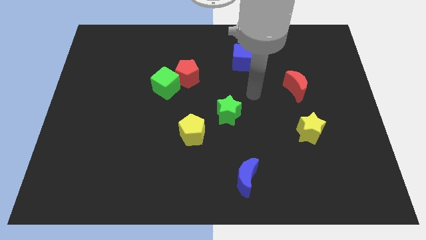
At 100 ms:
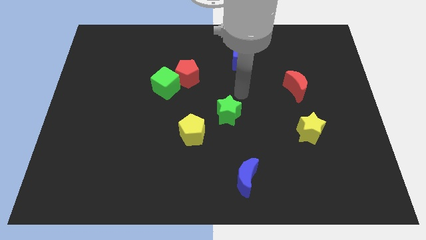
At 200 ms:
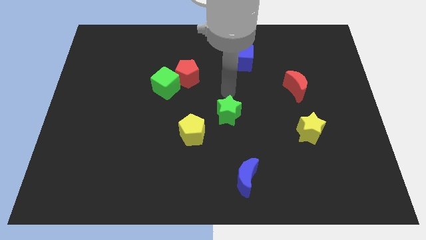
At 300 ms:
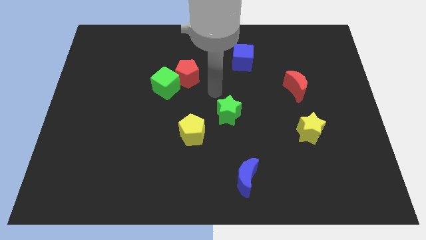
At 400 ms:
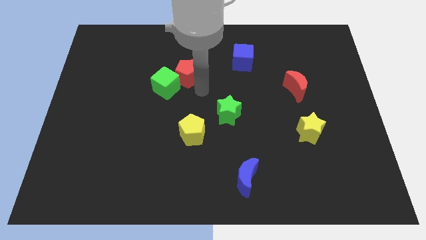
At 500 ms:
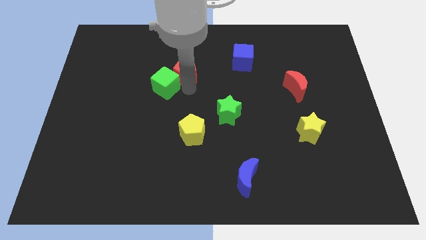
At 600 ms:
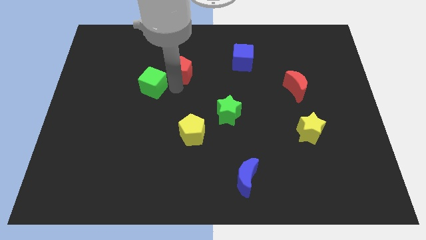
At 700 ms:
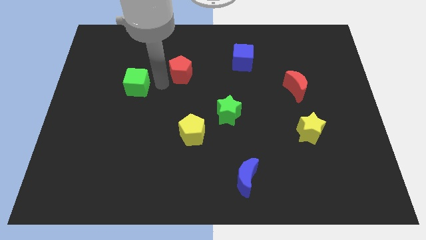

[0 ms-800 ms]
separate the red pentagon from the green cube

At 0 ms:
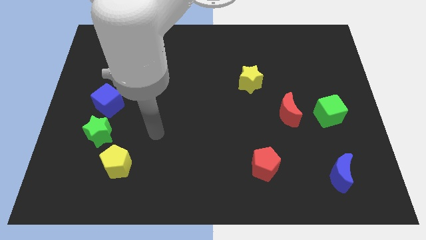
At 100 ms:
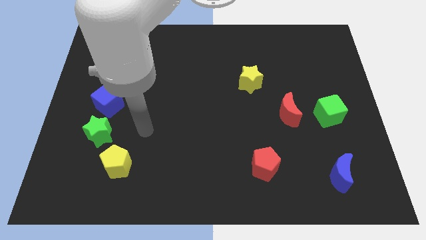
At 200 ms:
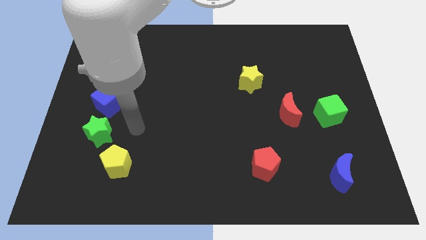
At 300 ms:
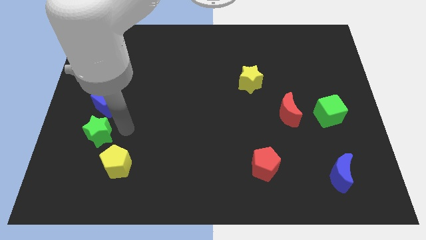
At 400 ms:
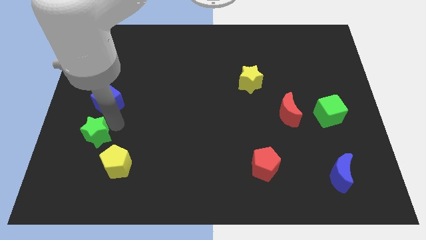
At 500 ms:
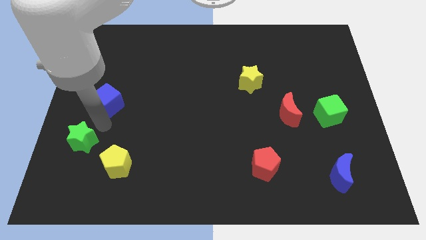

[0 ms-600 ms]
move the blue cube away from the green star

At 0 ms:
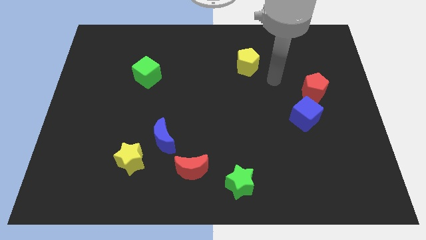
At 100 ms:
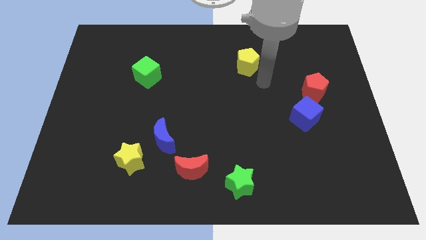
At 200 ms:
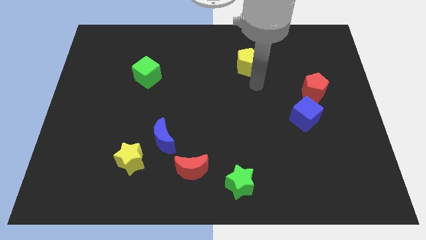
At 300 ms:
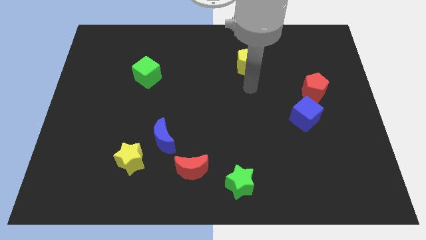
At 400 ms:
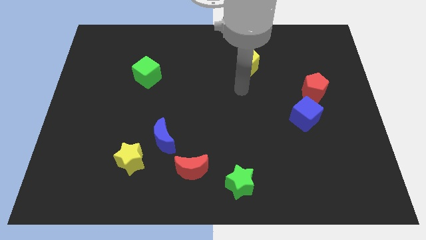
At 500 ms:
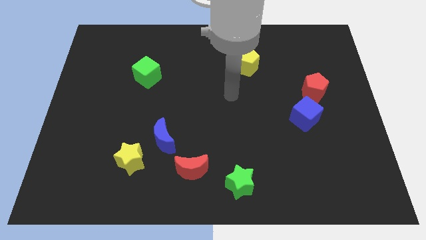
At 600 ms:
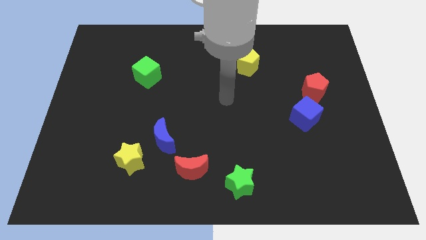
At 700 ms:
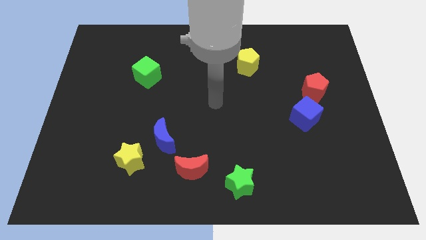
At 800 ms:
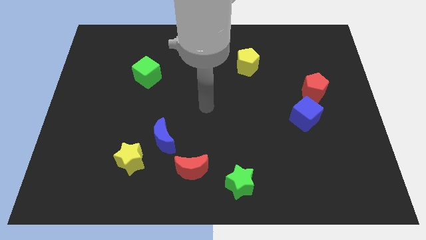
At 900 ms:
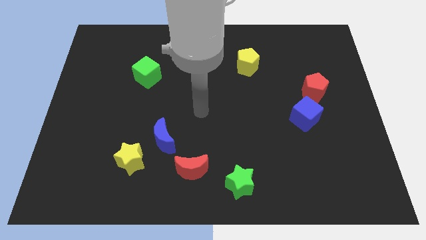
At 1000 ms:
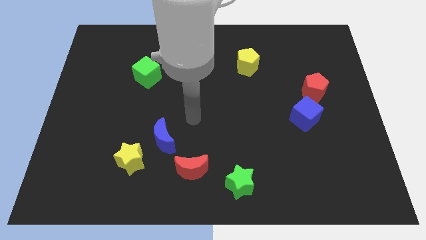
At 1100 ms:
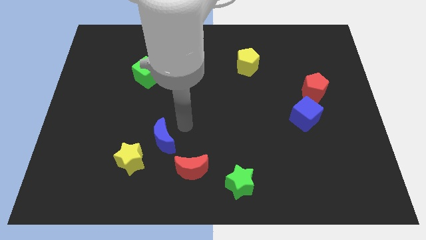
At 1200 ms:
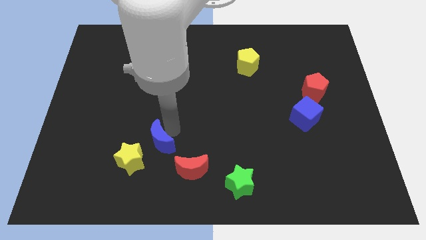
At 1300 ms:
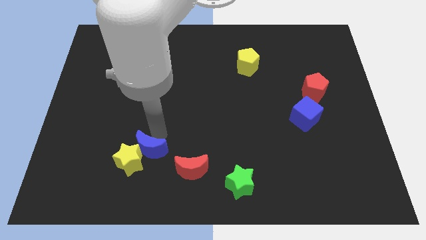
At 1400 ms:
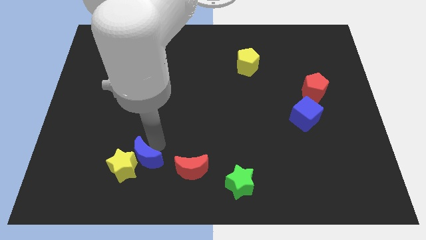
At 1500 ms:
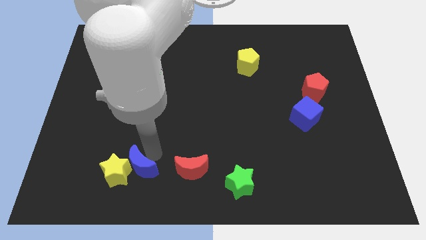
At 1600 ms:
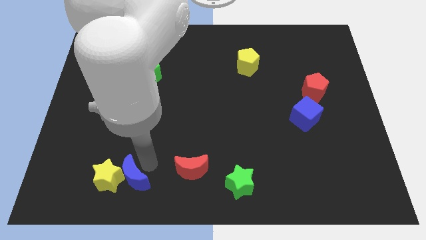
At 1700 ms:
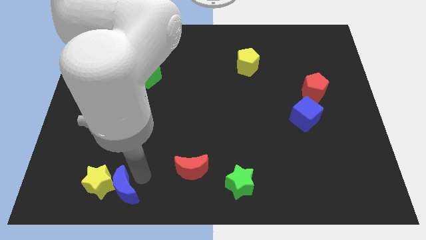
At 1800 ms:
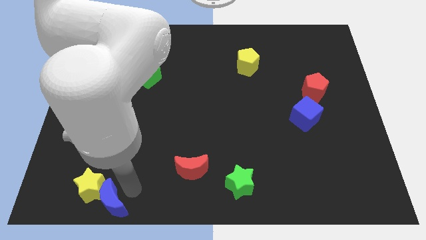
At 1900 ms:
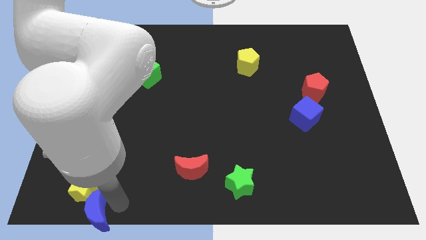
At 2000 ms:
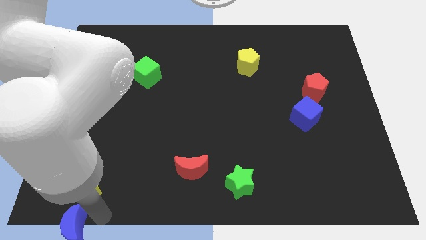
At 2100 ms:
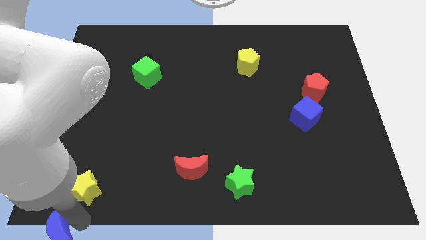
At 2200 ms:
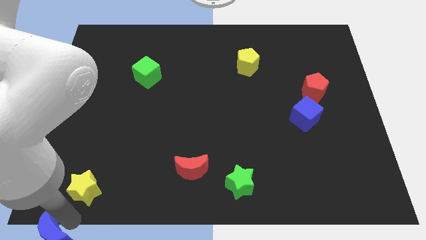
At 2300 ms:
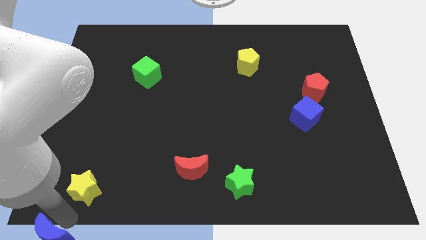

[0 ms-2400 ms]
pull the yellow star apart from the blue moon

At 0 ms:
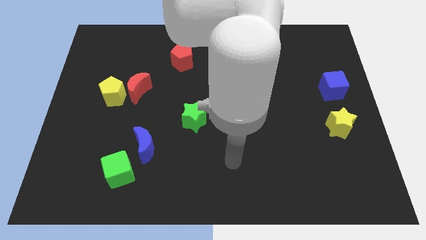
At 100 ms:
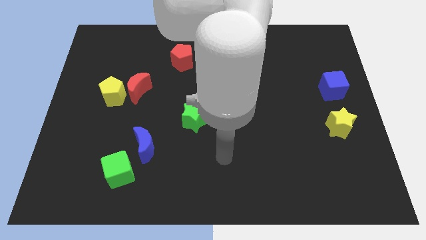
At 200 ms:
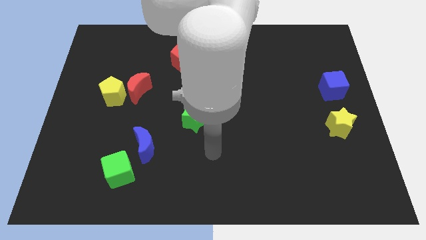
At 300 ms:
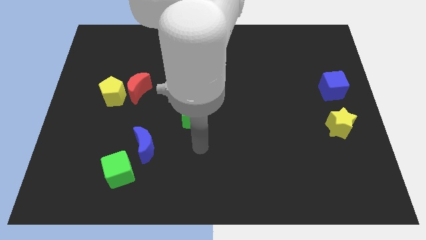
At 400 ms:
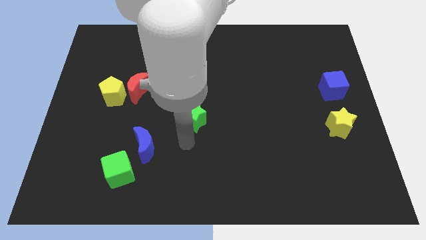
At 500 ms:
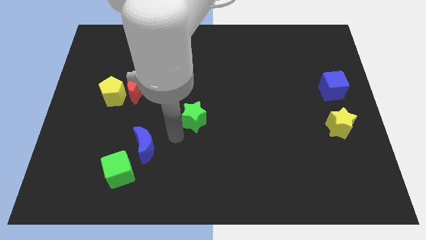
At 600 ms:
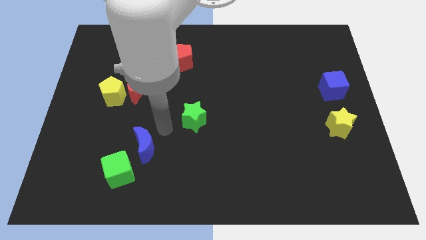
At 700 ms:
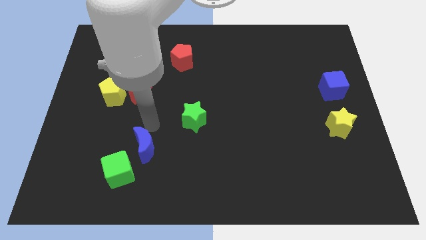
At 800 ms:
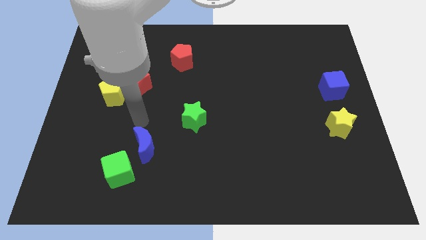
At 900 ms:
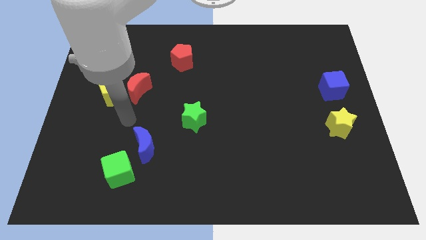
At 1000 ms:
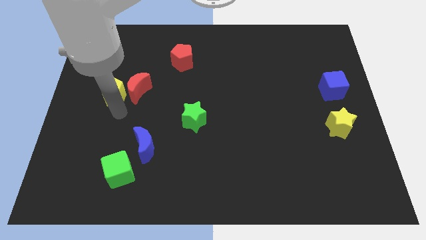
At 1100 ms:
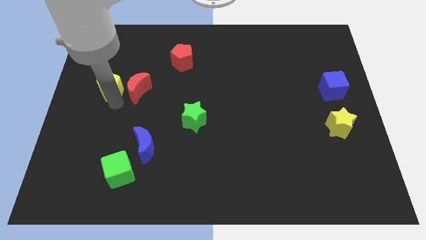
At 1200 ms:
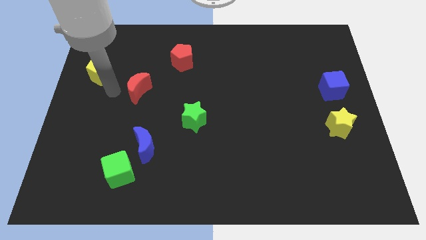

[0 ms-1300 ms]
pull the red moon apart from the yellow pentagon

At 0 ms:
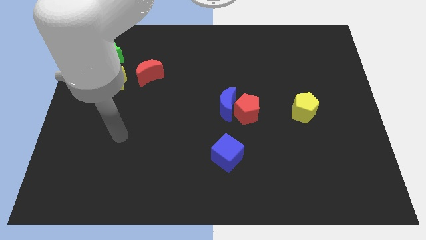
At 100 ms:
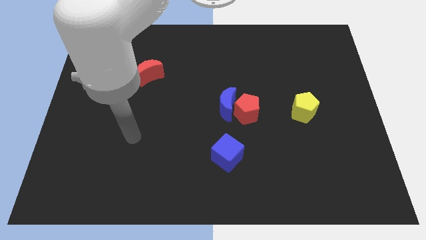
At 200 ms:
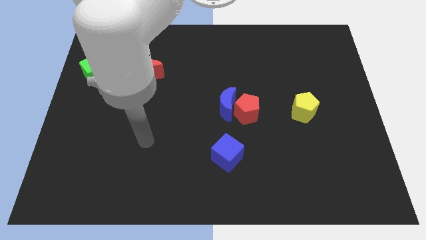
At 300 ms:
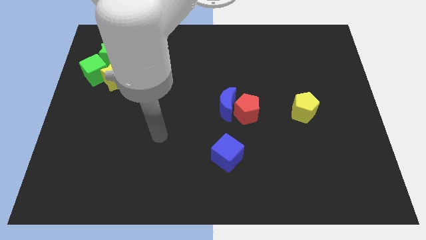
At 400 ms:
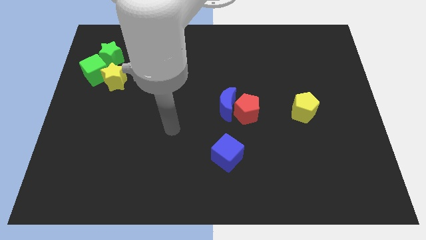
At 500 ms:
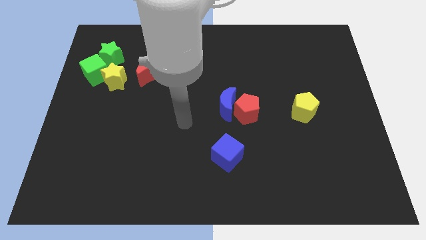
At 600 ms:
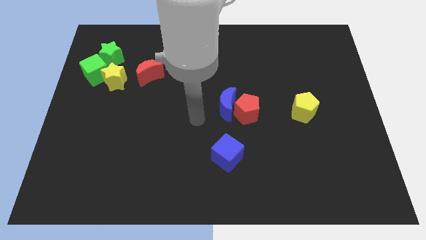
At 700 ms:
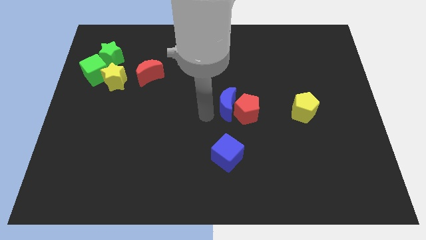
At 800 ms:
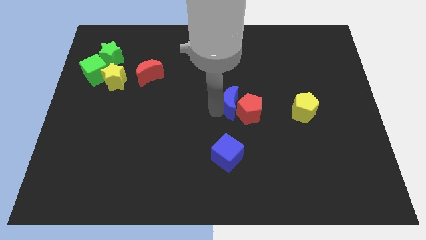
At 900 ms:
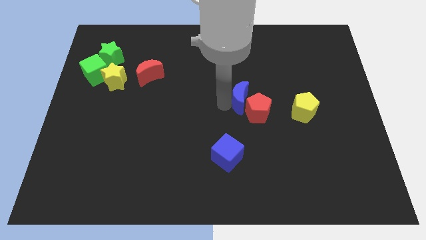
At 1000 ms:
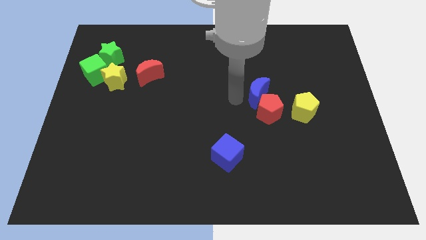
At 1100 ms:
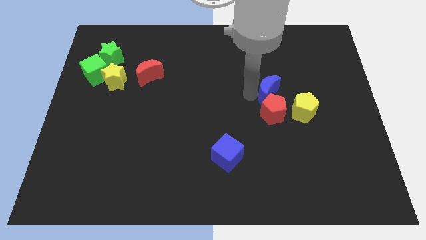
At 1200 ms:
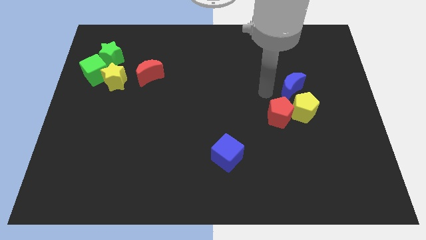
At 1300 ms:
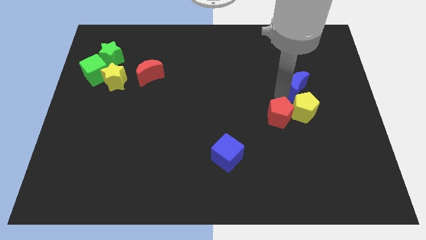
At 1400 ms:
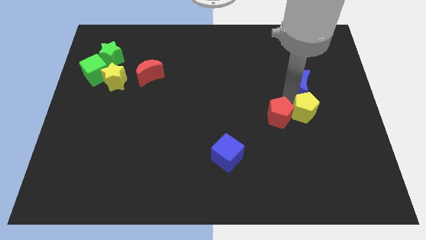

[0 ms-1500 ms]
pull the red pentagon apart from the blue moon

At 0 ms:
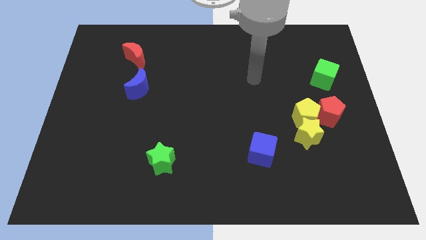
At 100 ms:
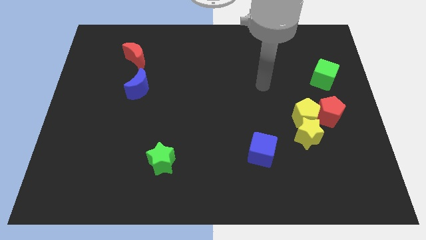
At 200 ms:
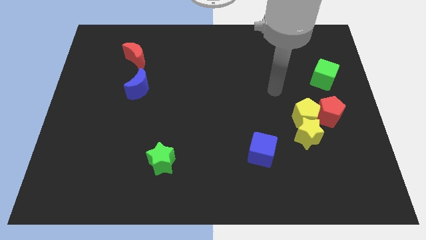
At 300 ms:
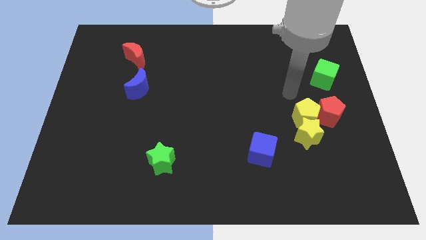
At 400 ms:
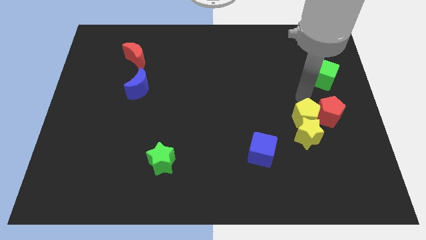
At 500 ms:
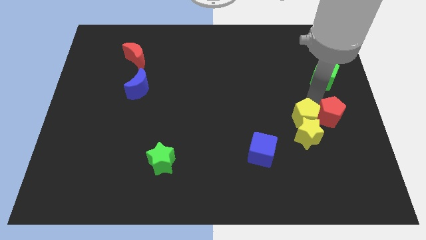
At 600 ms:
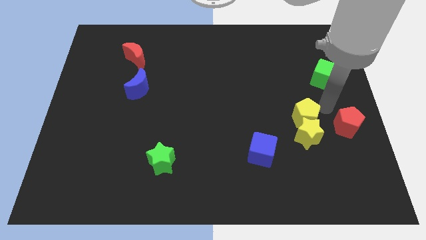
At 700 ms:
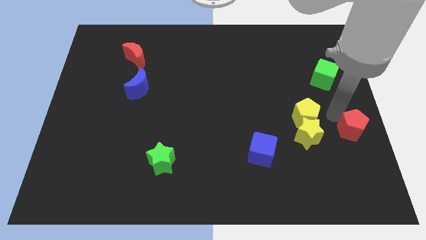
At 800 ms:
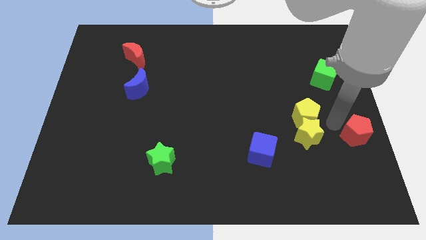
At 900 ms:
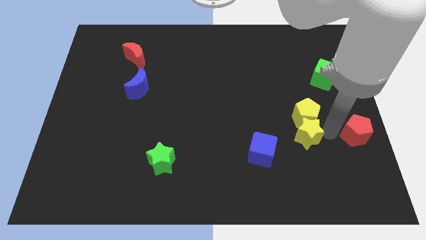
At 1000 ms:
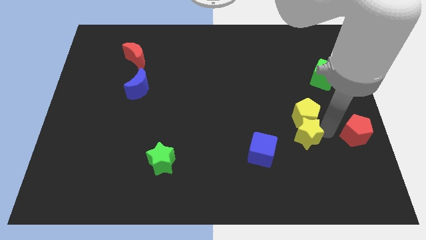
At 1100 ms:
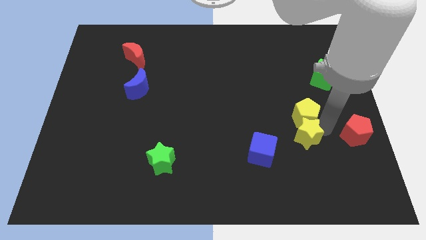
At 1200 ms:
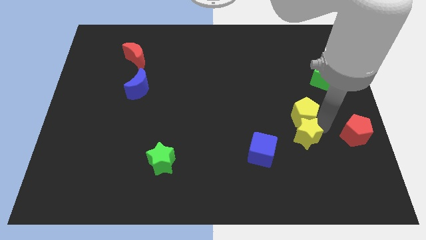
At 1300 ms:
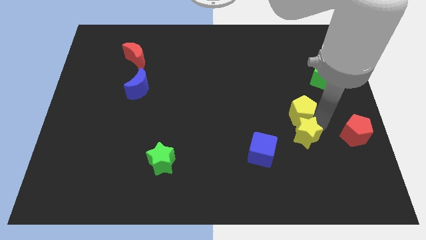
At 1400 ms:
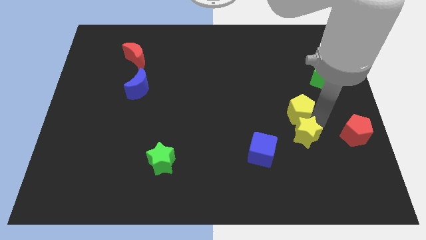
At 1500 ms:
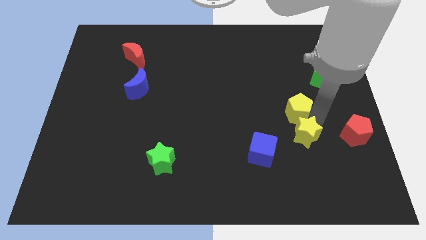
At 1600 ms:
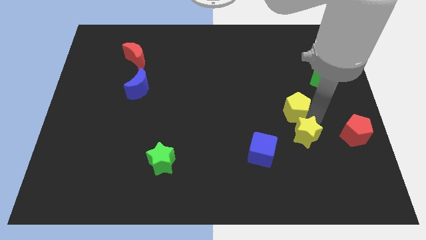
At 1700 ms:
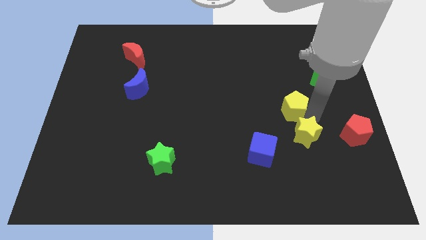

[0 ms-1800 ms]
pull the yellow pentagon apart from the yellow star and red pentagon

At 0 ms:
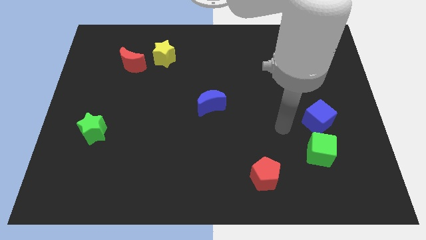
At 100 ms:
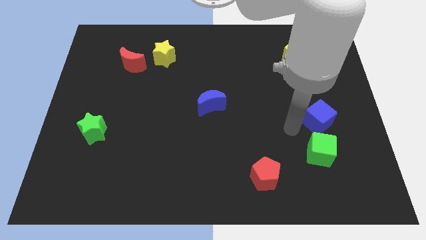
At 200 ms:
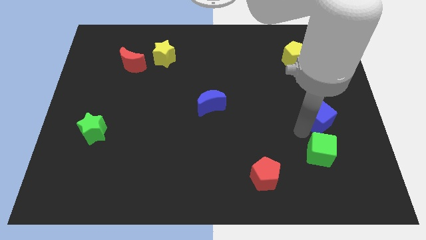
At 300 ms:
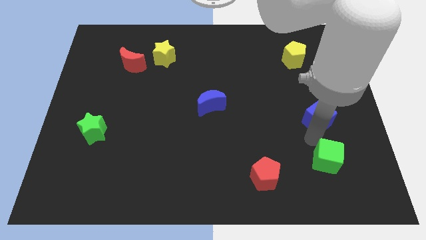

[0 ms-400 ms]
pull the blue cube apart from the green cube

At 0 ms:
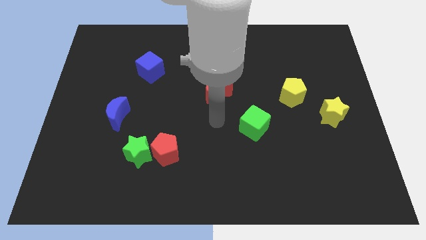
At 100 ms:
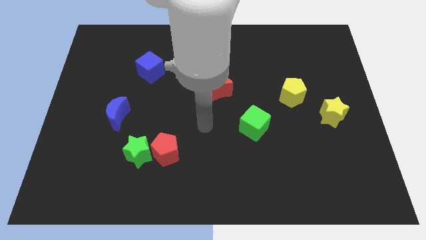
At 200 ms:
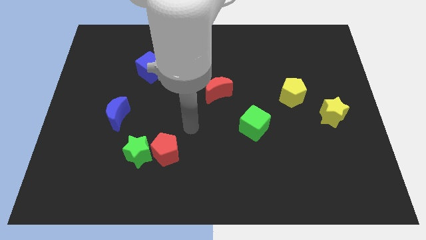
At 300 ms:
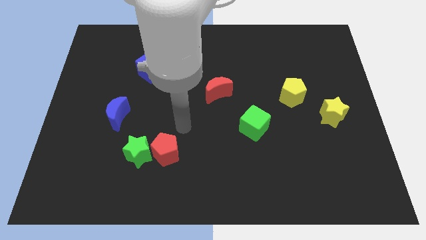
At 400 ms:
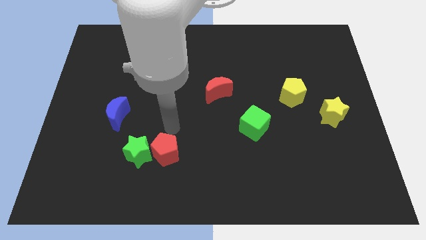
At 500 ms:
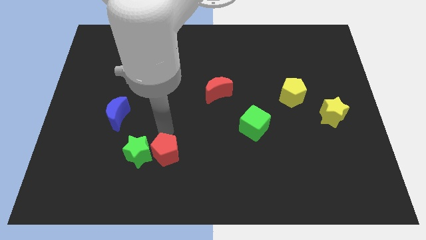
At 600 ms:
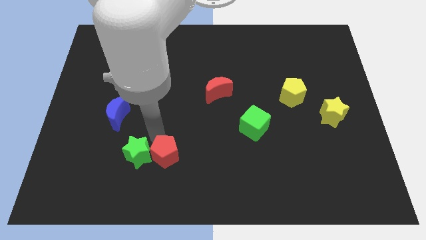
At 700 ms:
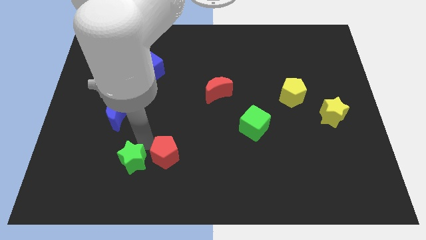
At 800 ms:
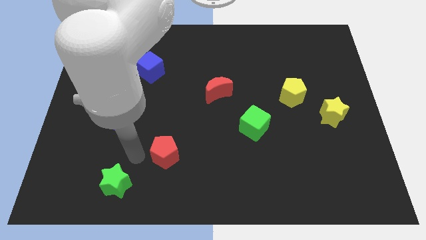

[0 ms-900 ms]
separate the red pentagon from the green star
